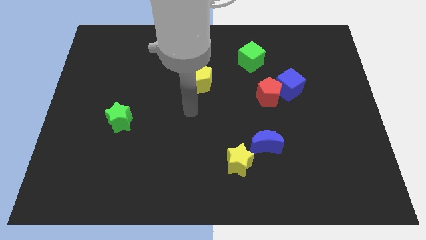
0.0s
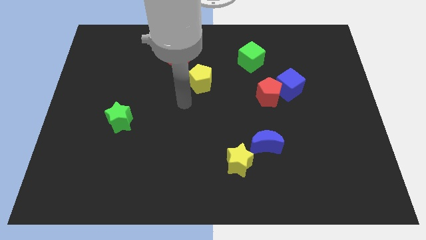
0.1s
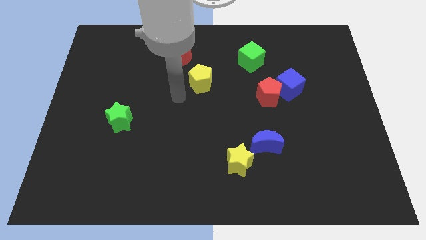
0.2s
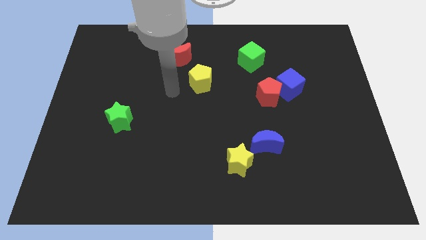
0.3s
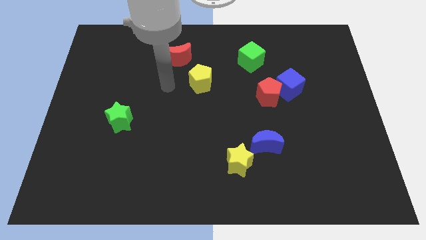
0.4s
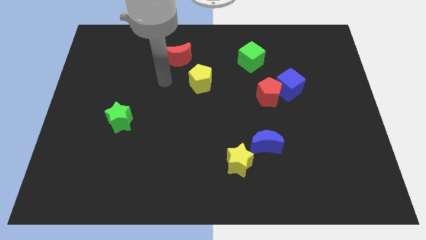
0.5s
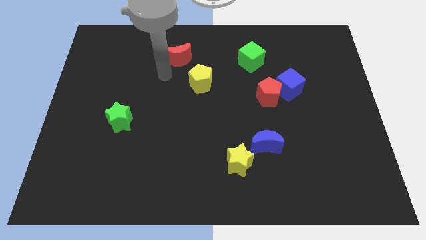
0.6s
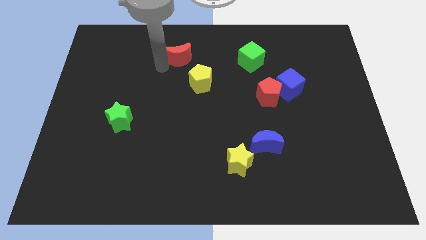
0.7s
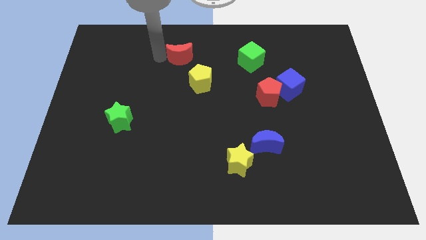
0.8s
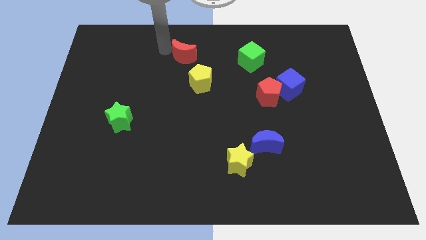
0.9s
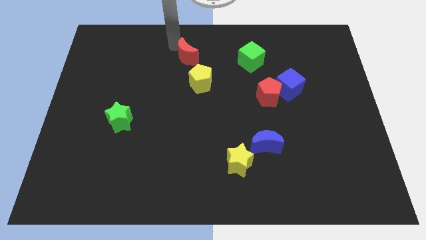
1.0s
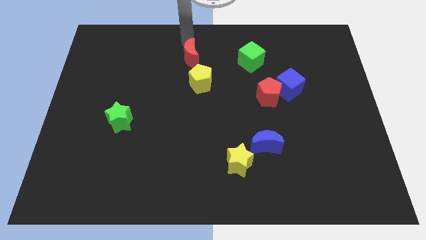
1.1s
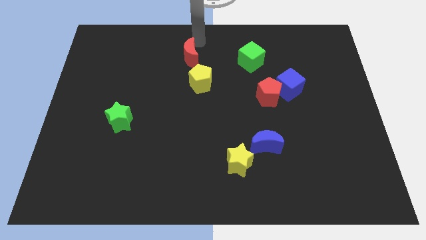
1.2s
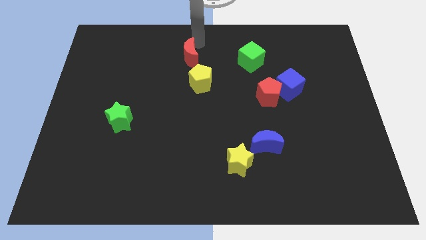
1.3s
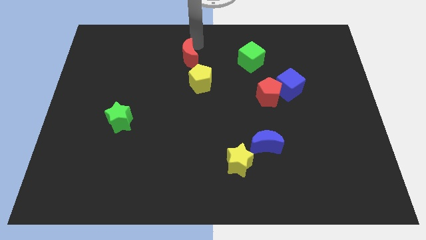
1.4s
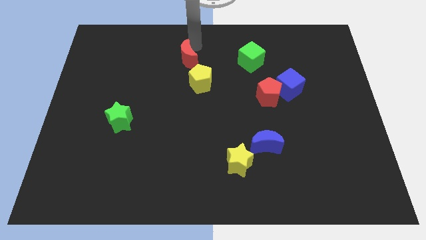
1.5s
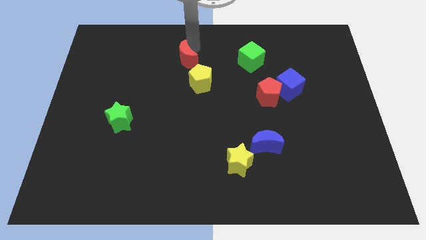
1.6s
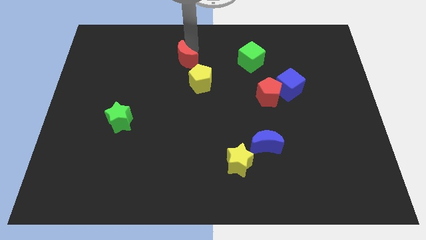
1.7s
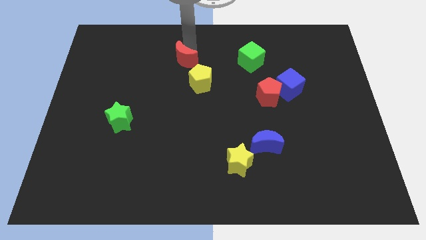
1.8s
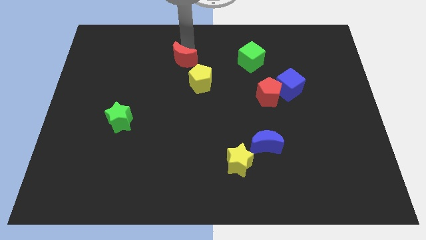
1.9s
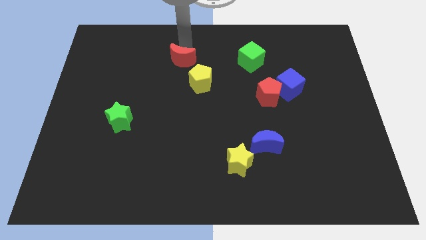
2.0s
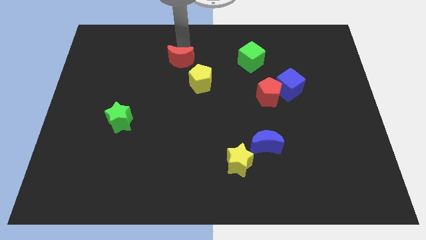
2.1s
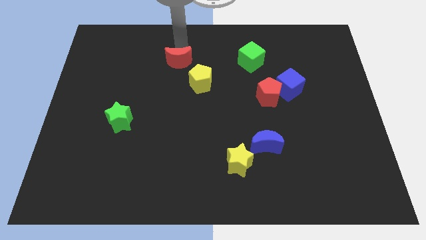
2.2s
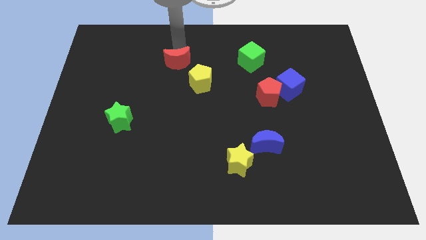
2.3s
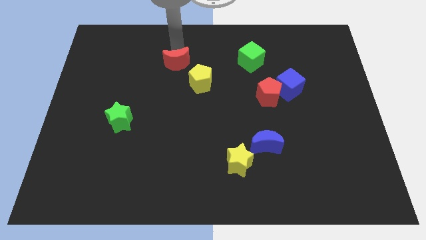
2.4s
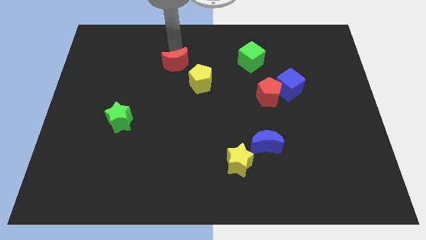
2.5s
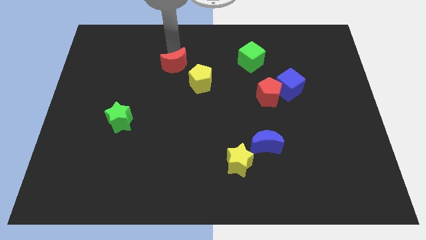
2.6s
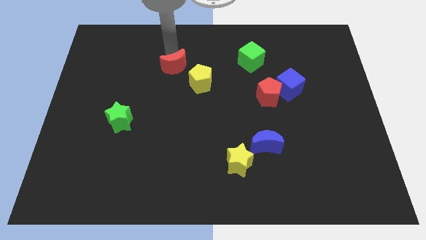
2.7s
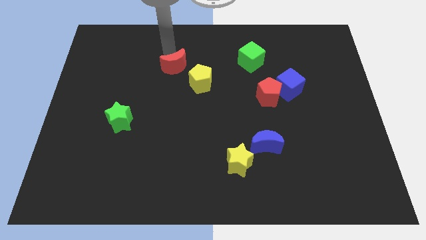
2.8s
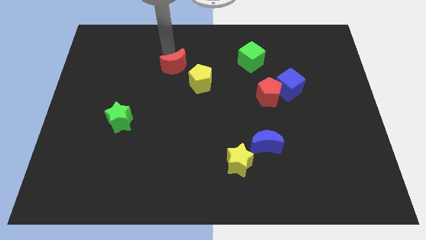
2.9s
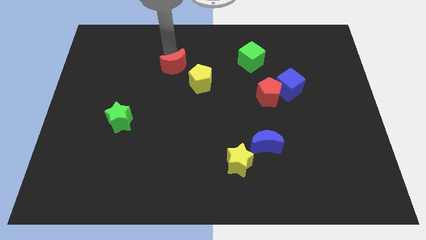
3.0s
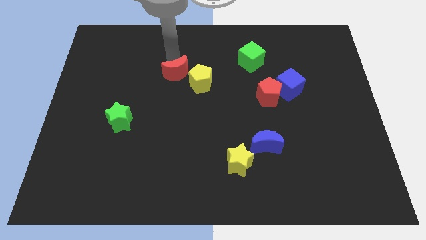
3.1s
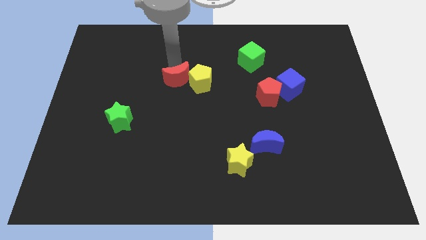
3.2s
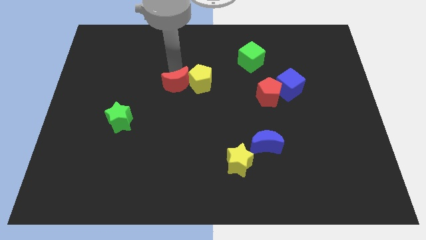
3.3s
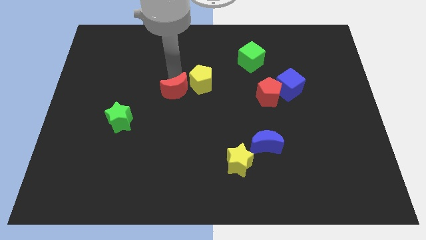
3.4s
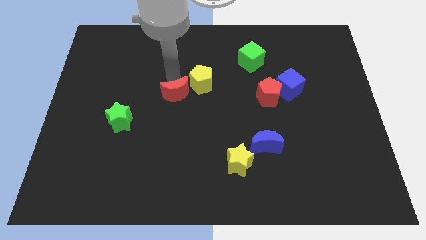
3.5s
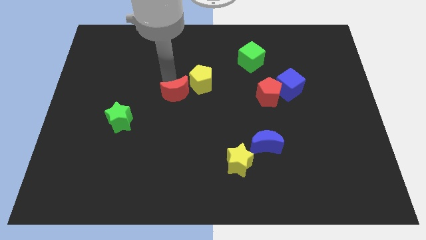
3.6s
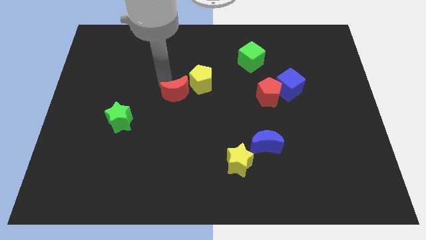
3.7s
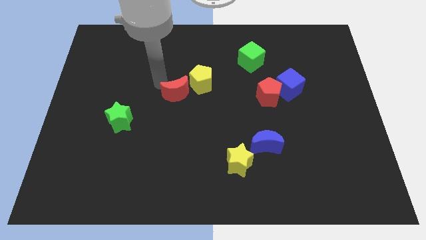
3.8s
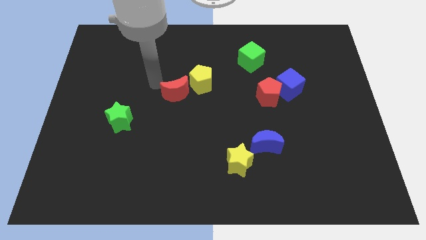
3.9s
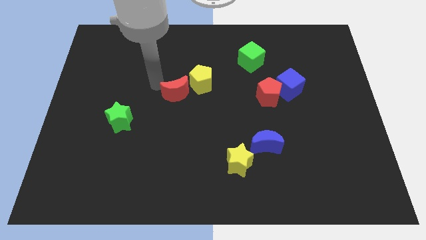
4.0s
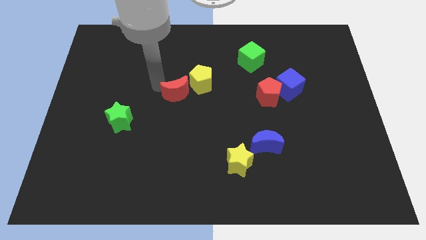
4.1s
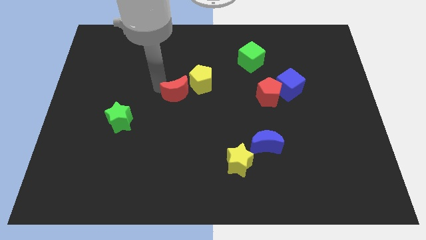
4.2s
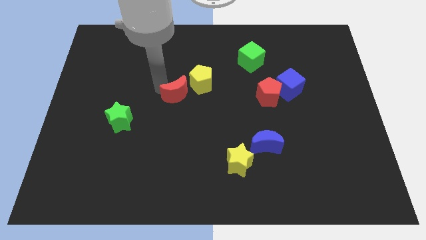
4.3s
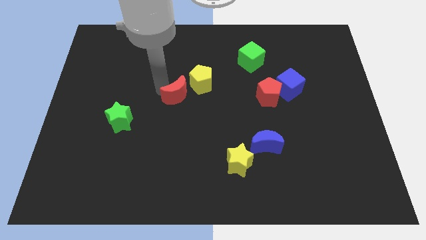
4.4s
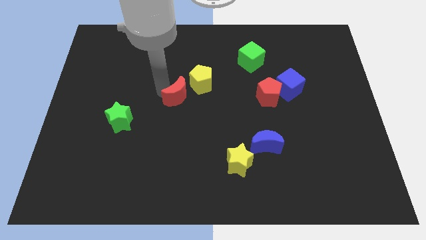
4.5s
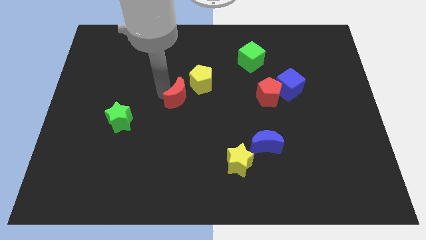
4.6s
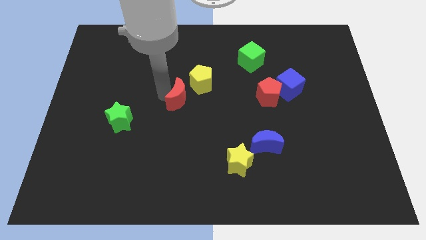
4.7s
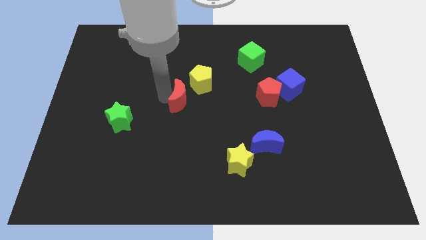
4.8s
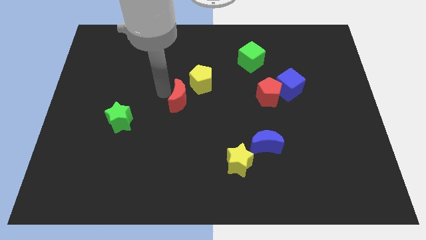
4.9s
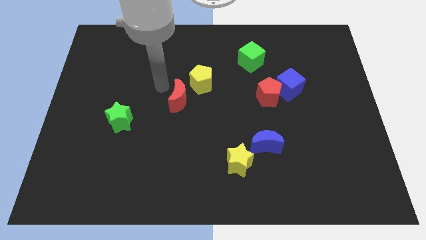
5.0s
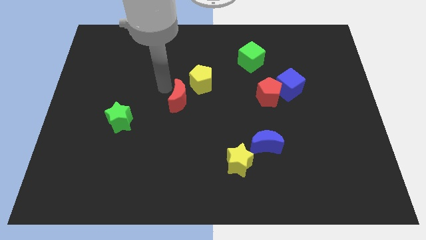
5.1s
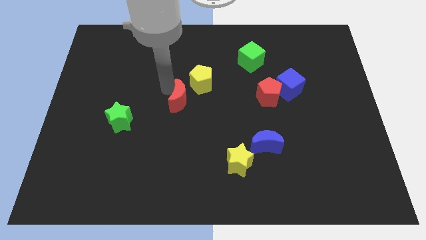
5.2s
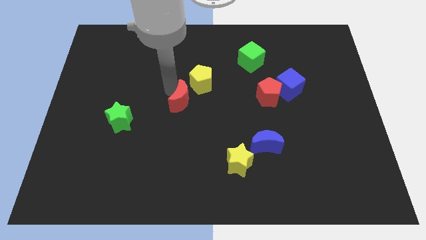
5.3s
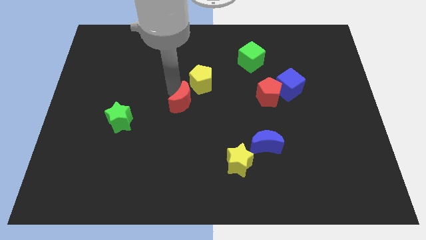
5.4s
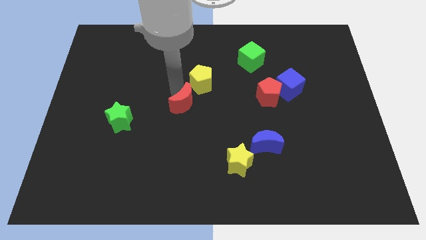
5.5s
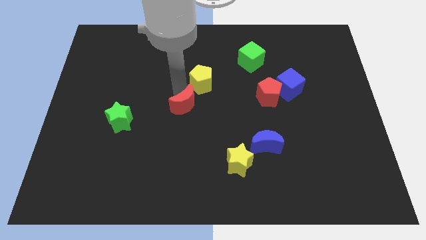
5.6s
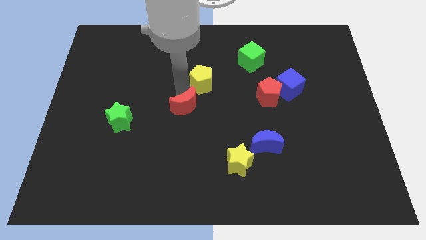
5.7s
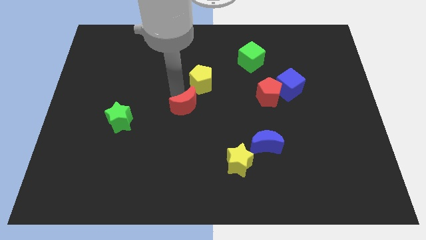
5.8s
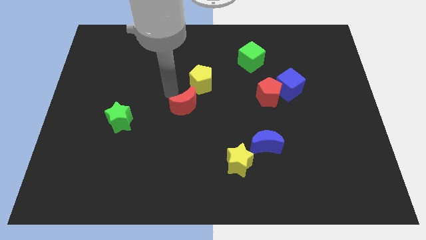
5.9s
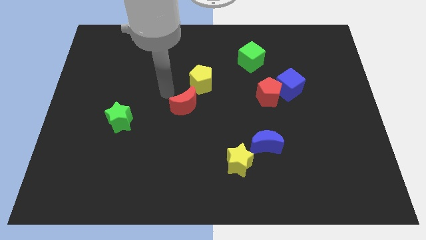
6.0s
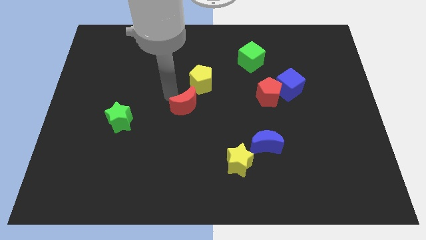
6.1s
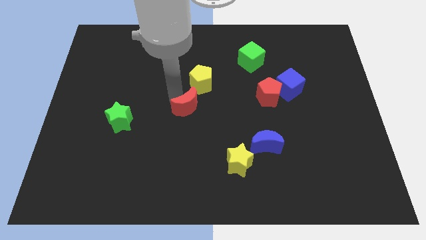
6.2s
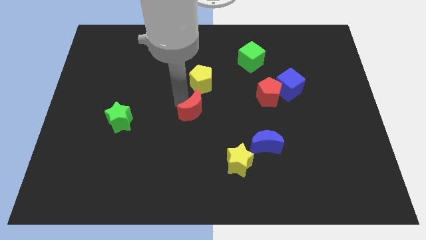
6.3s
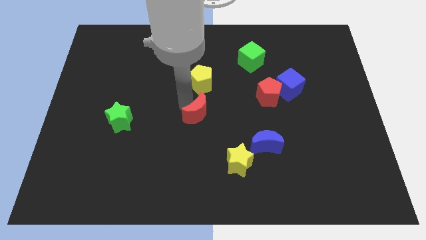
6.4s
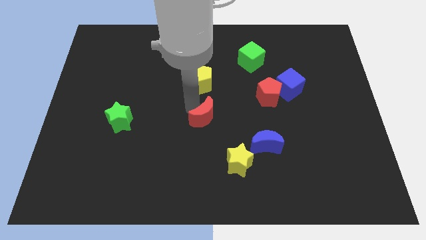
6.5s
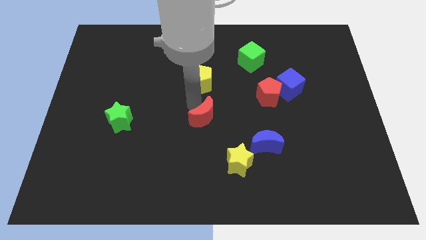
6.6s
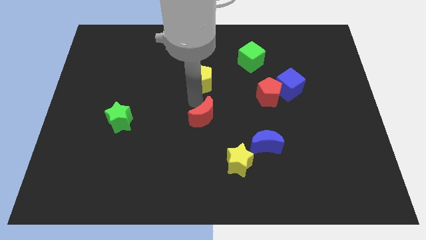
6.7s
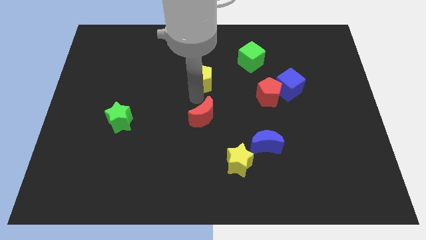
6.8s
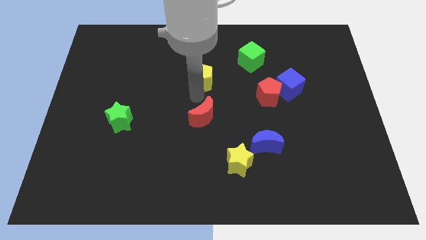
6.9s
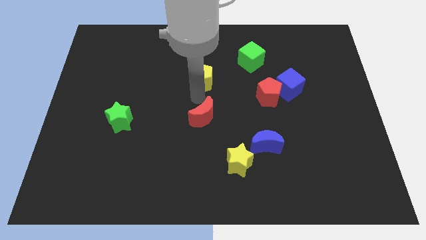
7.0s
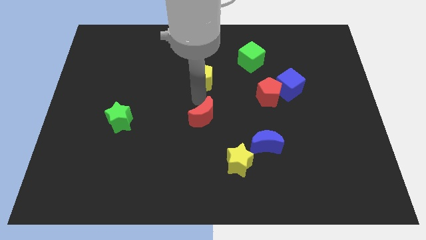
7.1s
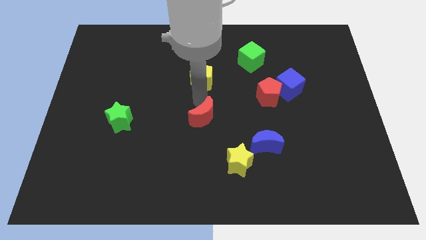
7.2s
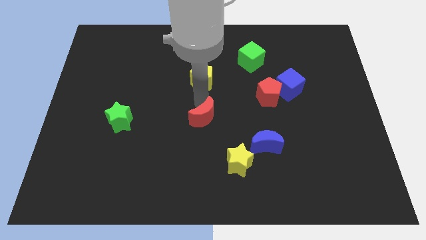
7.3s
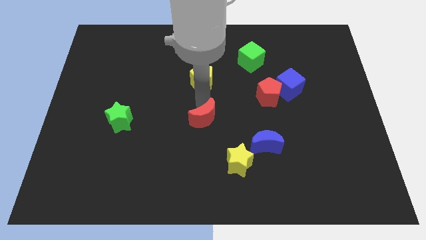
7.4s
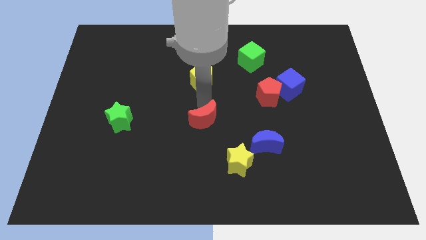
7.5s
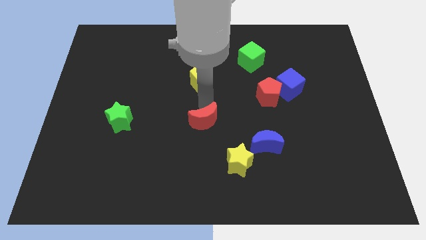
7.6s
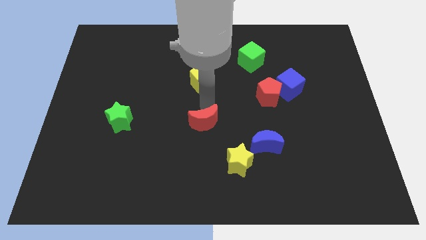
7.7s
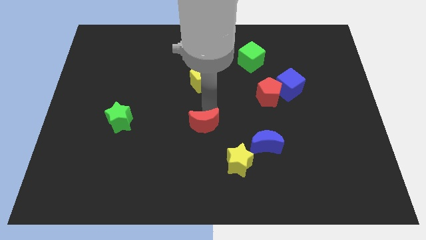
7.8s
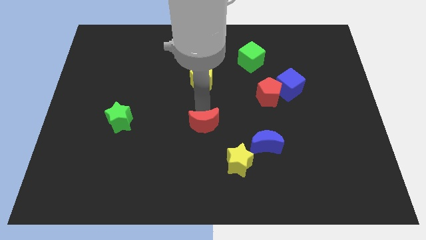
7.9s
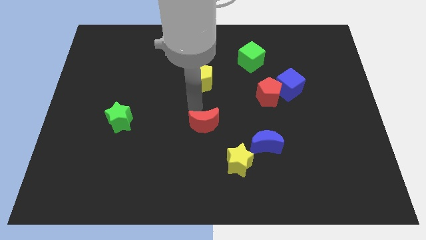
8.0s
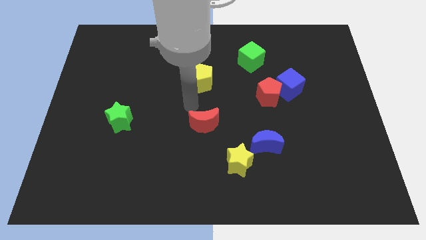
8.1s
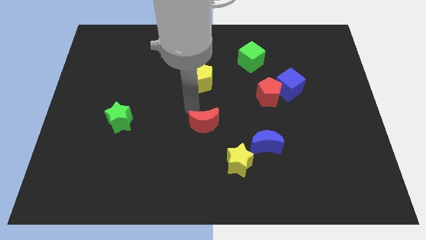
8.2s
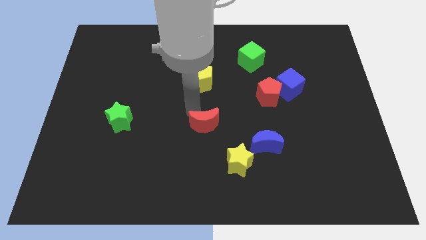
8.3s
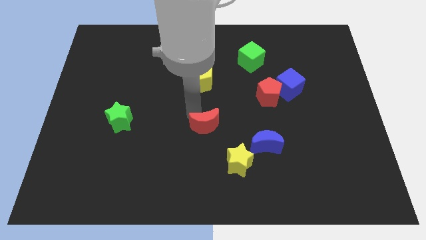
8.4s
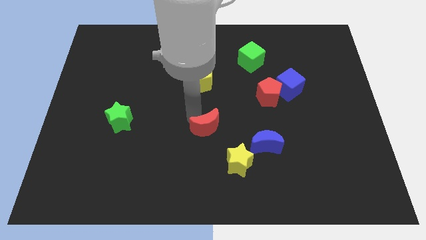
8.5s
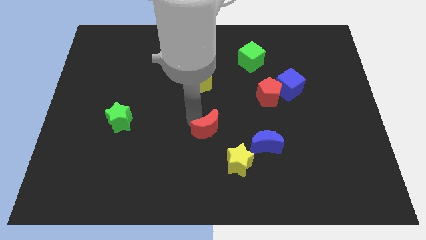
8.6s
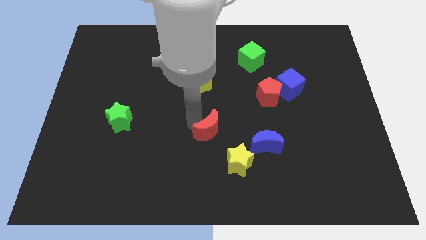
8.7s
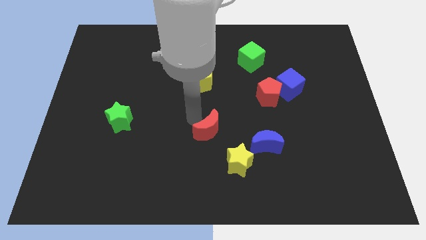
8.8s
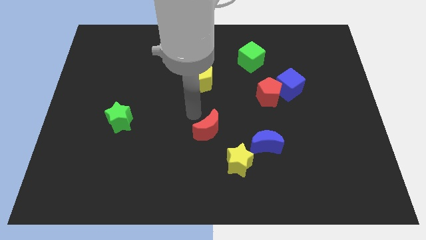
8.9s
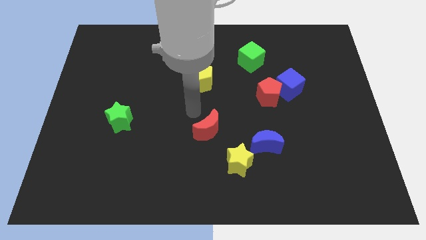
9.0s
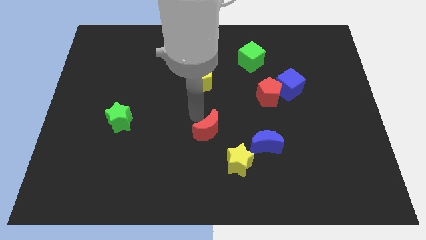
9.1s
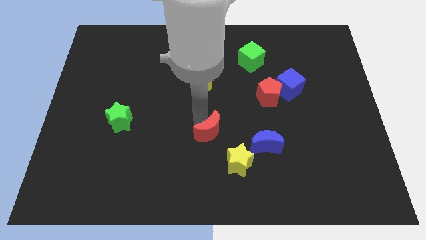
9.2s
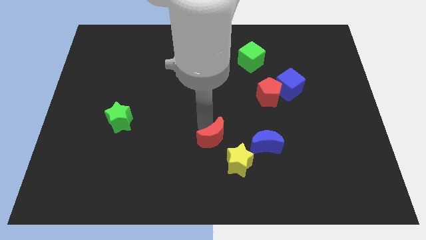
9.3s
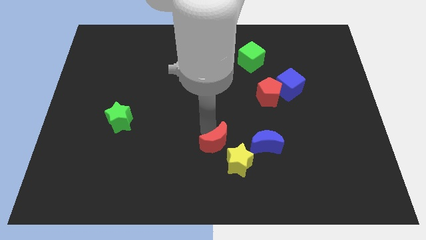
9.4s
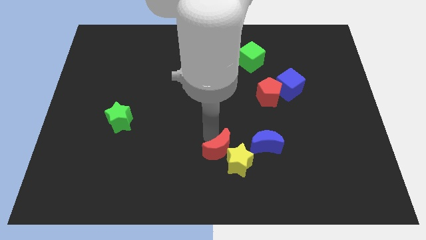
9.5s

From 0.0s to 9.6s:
move the red moon next to the yellow star
